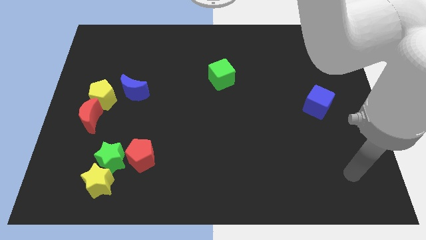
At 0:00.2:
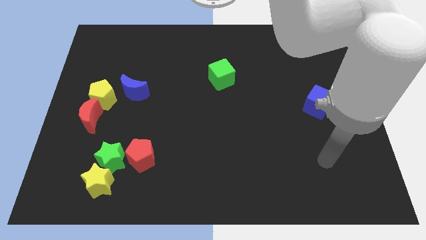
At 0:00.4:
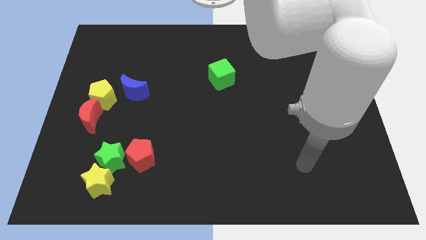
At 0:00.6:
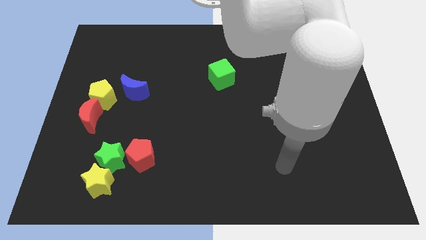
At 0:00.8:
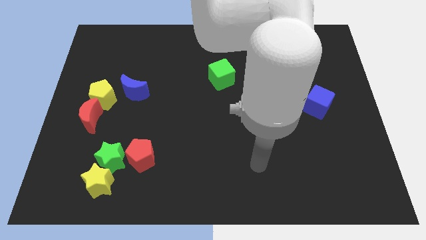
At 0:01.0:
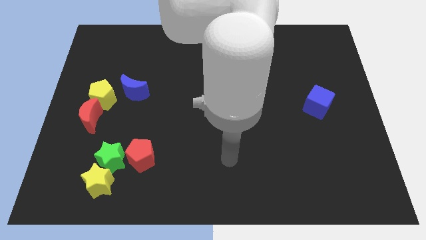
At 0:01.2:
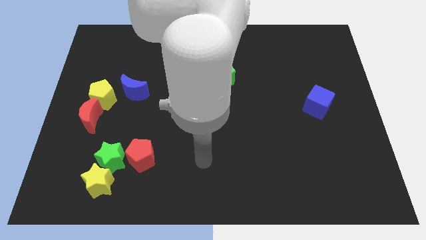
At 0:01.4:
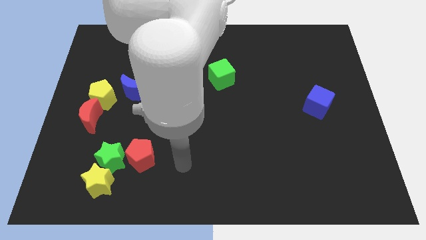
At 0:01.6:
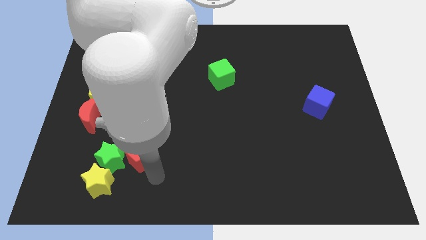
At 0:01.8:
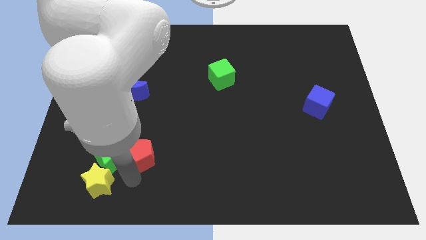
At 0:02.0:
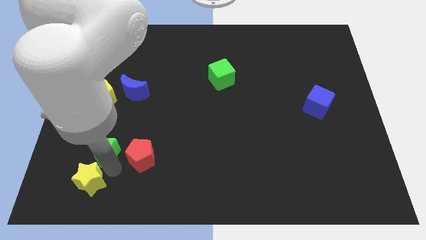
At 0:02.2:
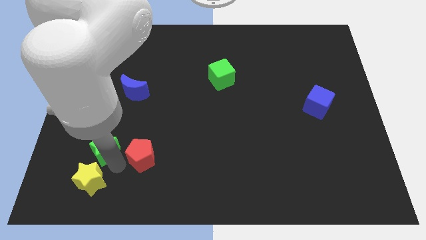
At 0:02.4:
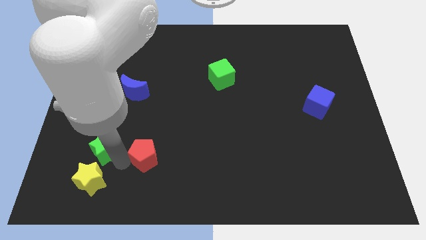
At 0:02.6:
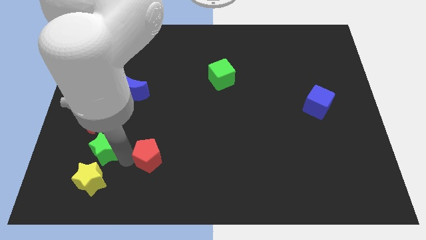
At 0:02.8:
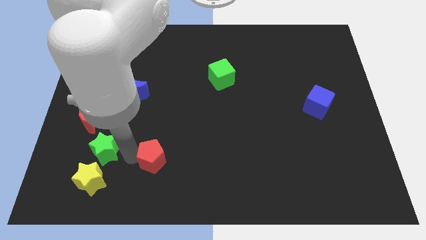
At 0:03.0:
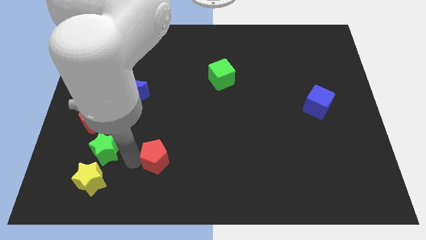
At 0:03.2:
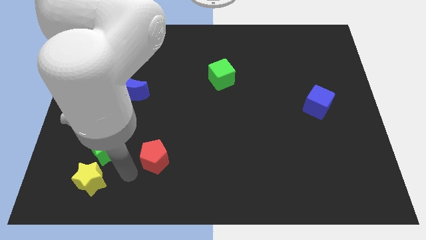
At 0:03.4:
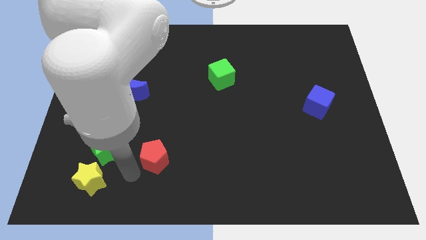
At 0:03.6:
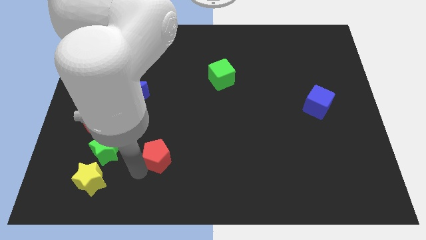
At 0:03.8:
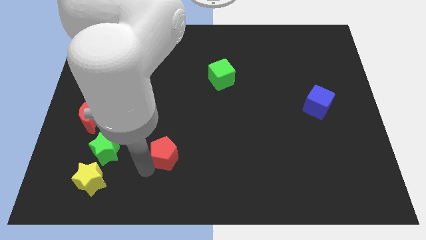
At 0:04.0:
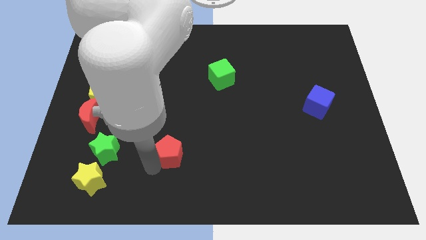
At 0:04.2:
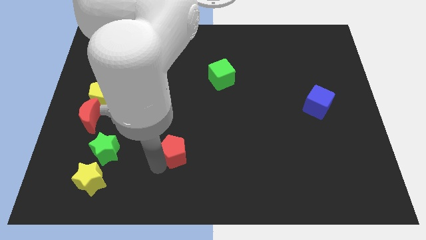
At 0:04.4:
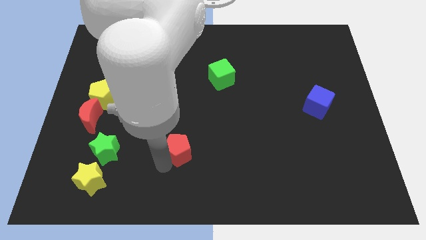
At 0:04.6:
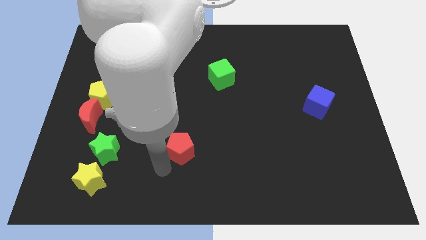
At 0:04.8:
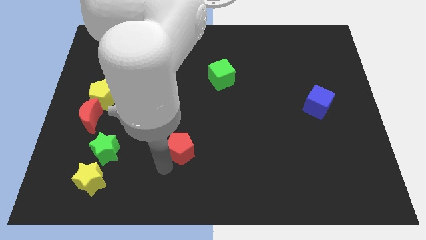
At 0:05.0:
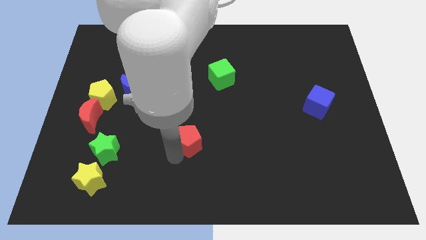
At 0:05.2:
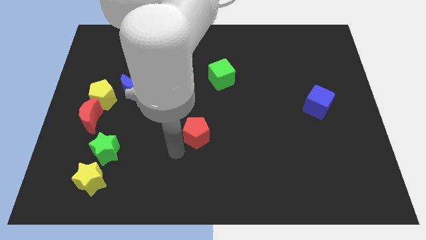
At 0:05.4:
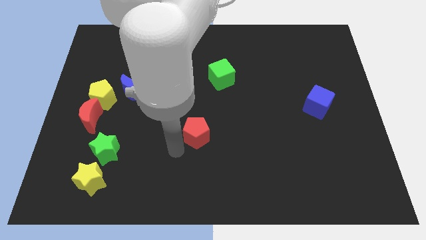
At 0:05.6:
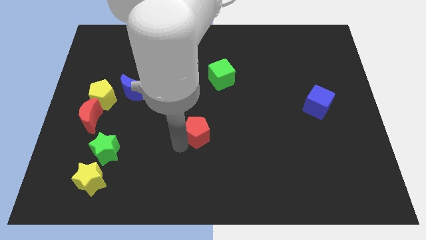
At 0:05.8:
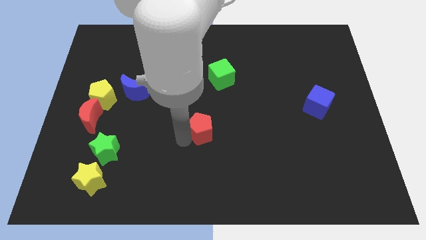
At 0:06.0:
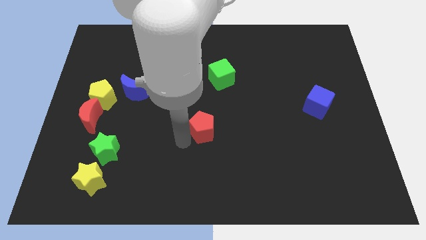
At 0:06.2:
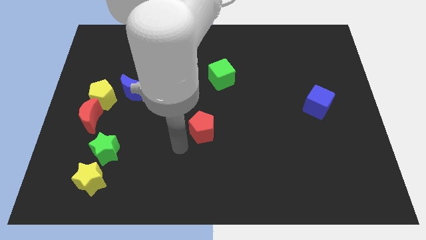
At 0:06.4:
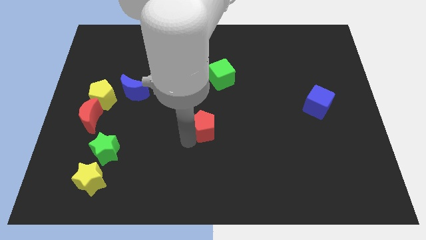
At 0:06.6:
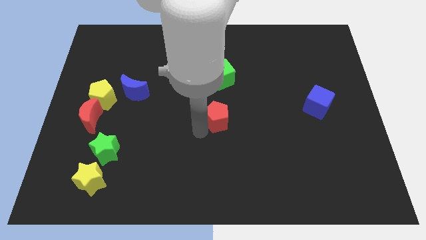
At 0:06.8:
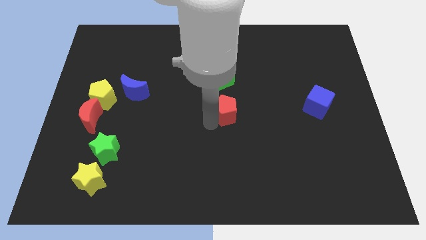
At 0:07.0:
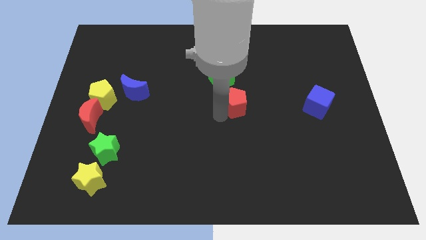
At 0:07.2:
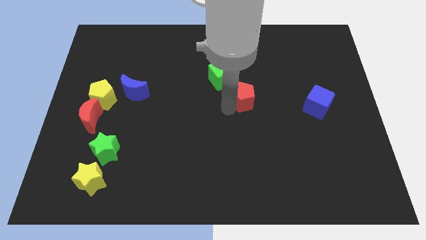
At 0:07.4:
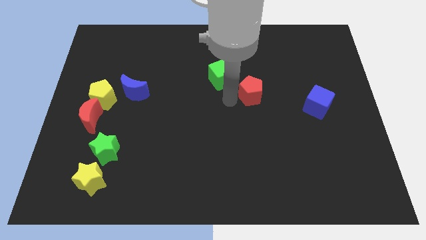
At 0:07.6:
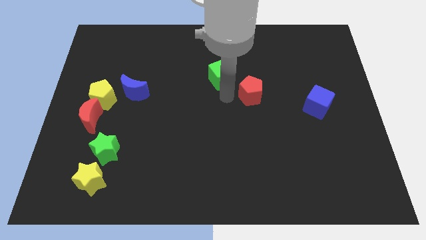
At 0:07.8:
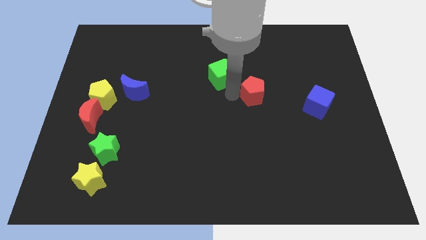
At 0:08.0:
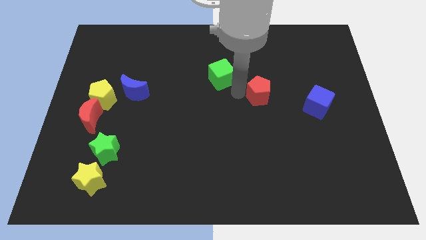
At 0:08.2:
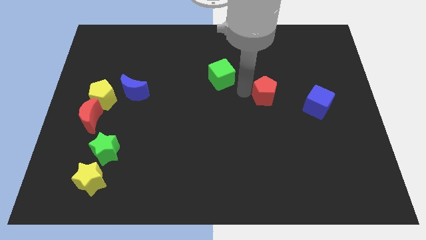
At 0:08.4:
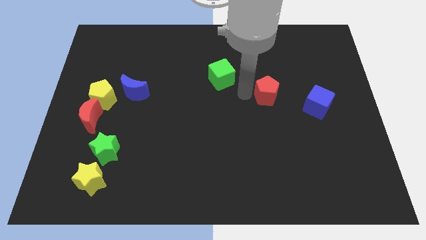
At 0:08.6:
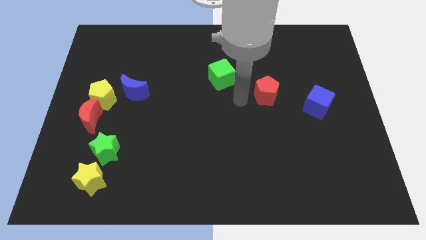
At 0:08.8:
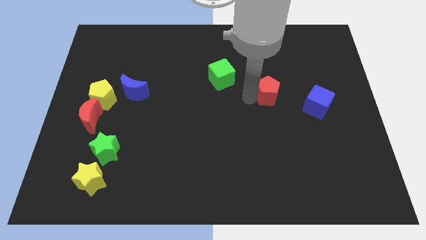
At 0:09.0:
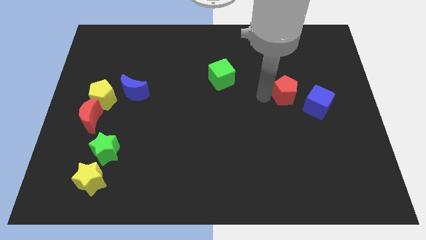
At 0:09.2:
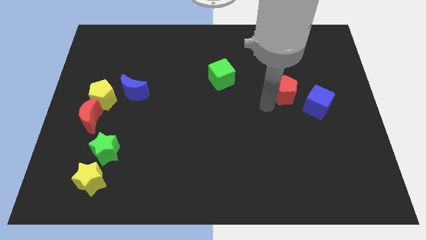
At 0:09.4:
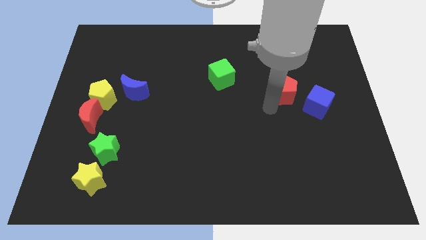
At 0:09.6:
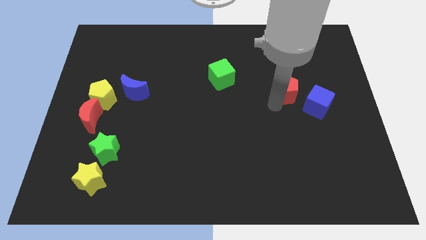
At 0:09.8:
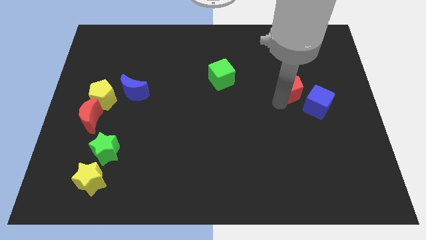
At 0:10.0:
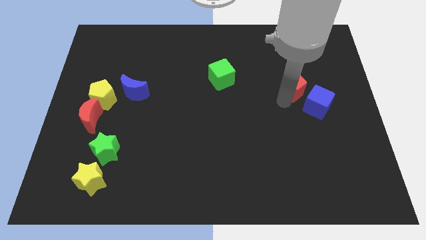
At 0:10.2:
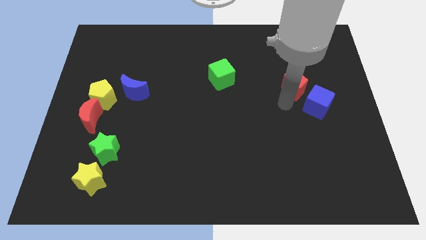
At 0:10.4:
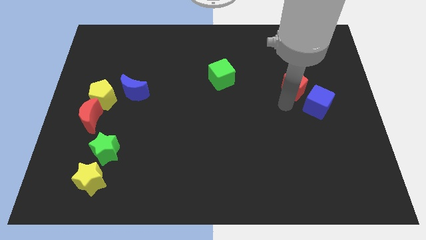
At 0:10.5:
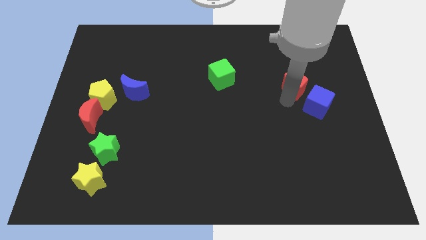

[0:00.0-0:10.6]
slide the red pentagon to the top of the blue cube

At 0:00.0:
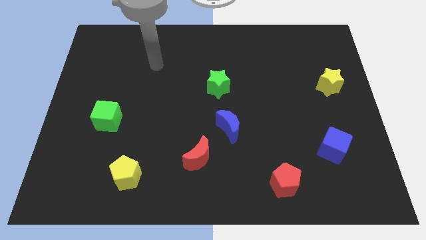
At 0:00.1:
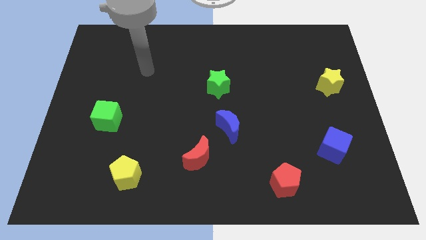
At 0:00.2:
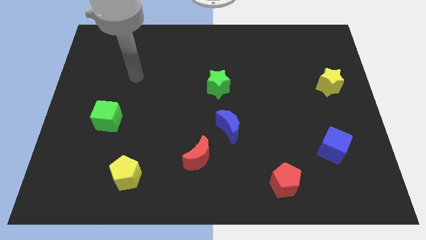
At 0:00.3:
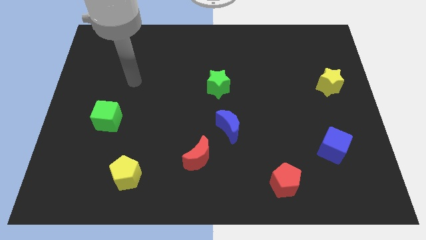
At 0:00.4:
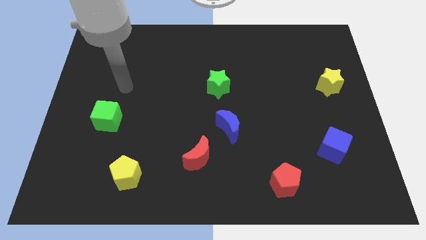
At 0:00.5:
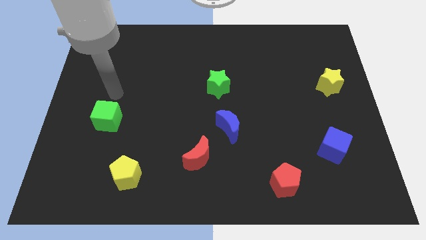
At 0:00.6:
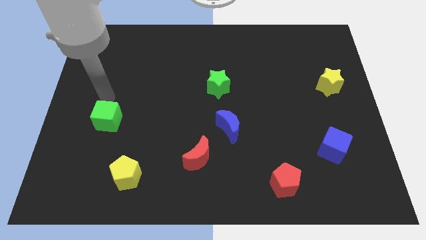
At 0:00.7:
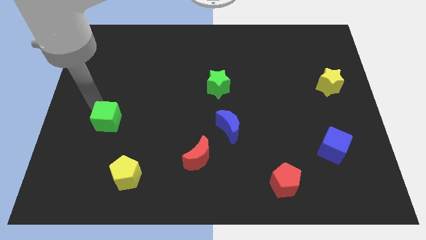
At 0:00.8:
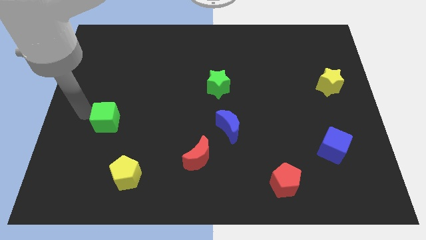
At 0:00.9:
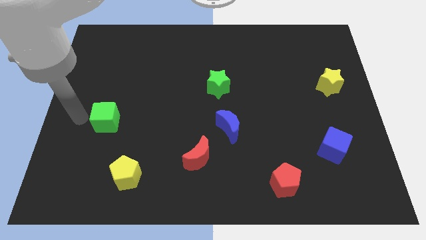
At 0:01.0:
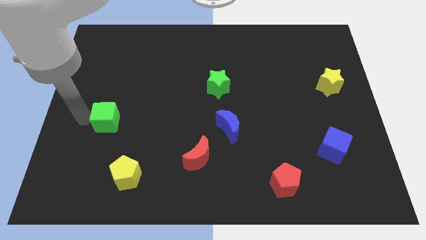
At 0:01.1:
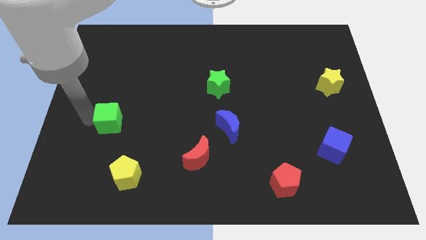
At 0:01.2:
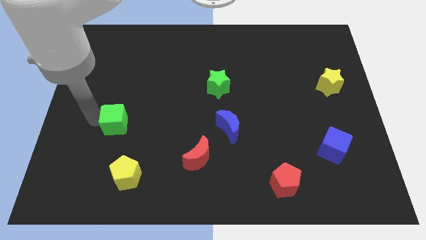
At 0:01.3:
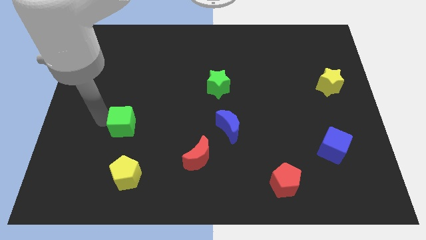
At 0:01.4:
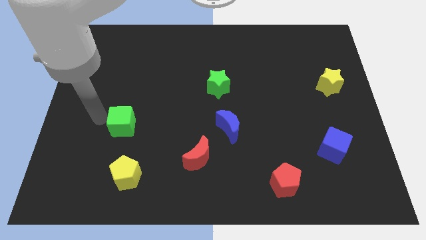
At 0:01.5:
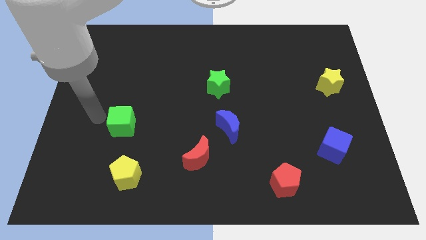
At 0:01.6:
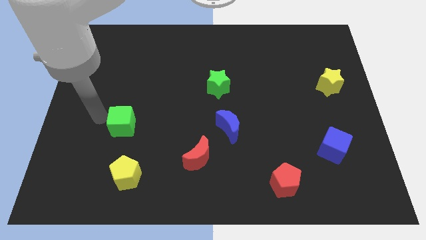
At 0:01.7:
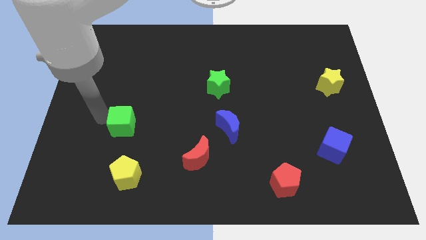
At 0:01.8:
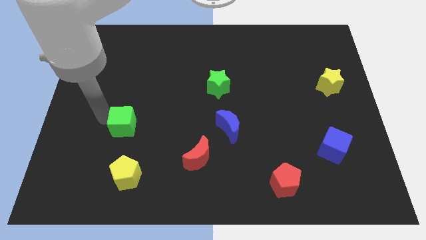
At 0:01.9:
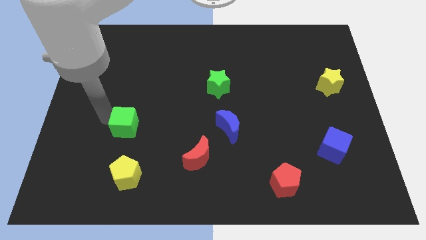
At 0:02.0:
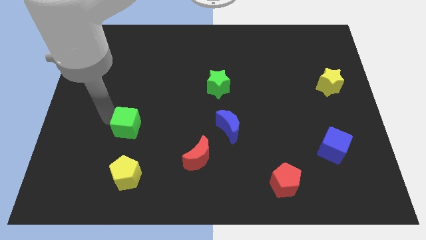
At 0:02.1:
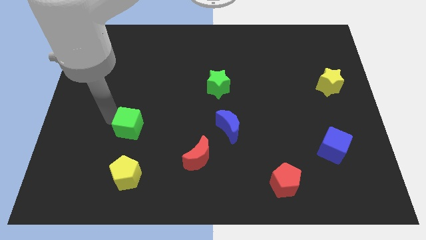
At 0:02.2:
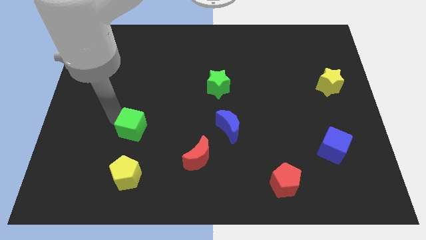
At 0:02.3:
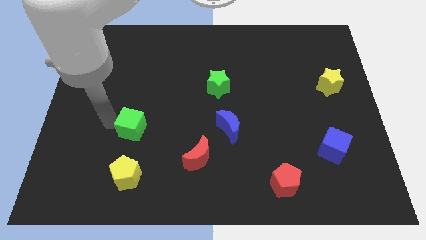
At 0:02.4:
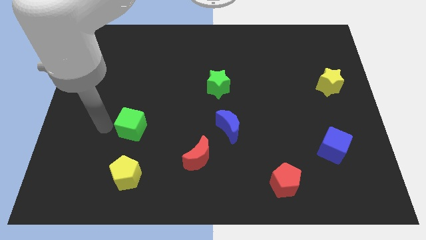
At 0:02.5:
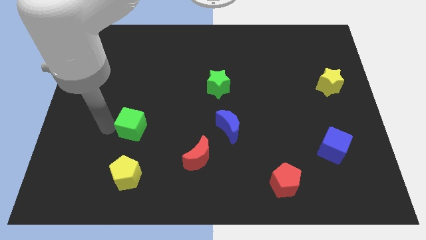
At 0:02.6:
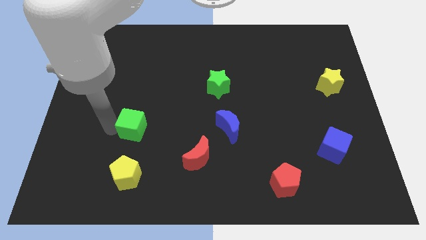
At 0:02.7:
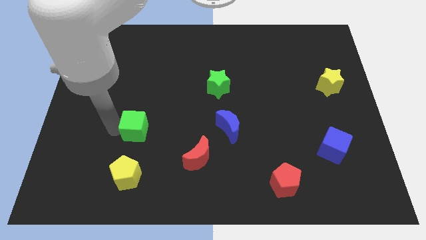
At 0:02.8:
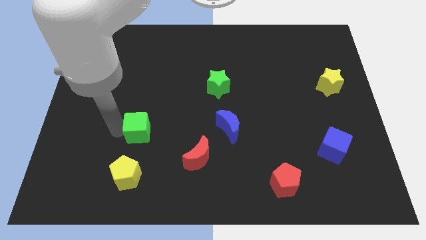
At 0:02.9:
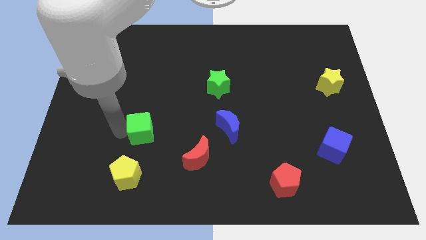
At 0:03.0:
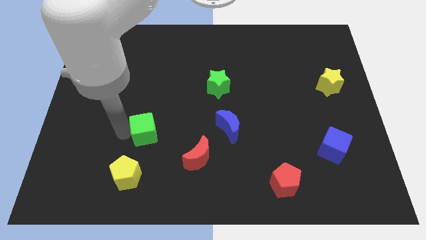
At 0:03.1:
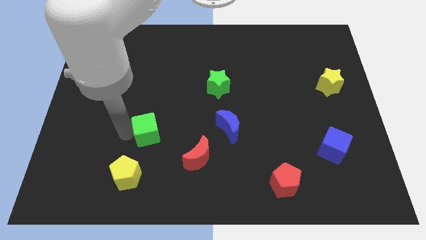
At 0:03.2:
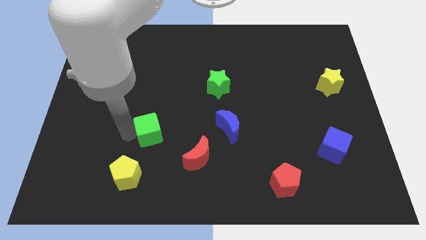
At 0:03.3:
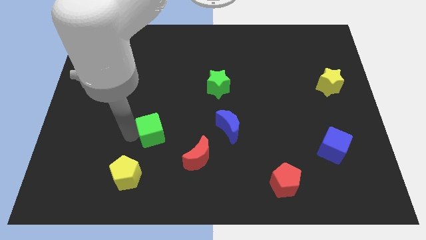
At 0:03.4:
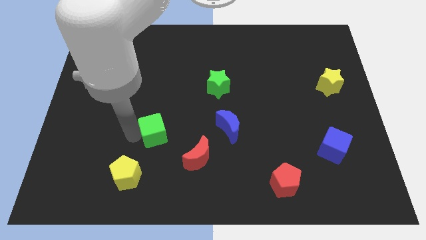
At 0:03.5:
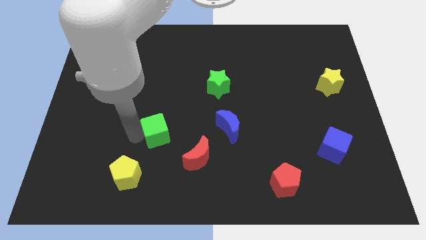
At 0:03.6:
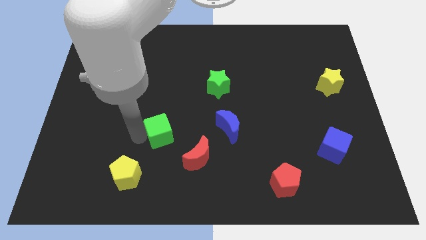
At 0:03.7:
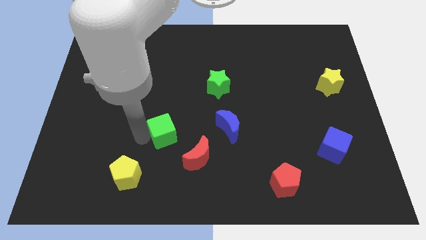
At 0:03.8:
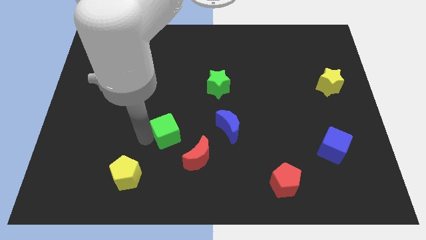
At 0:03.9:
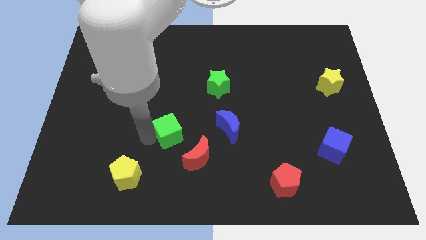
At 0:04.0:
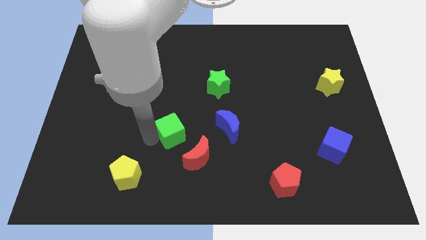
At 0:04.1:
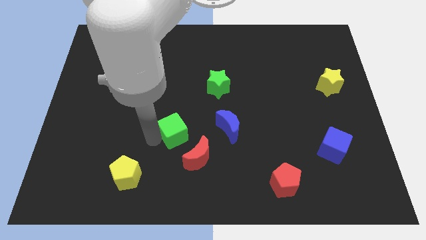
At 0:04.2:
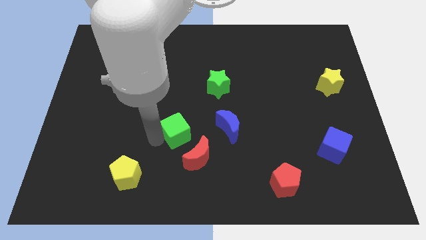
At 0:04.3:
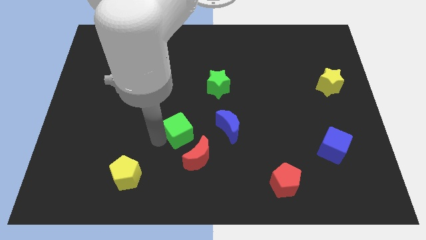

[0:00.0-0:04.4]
put the green cube above the red moon
